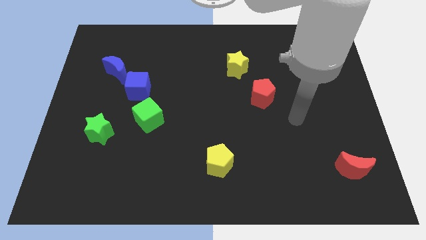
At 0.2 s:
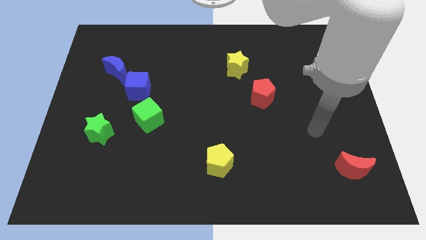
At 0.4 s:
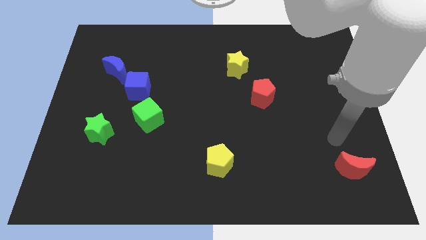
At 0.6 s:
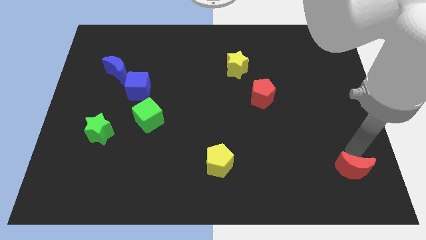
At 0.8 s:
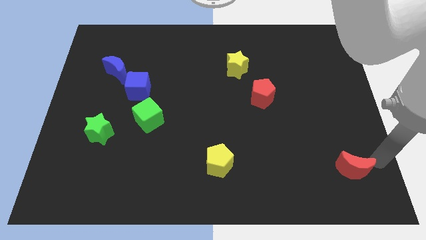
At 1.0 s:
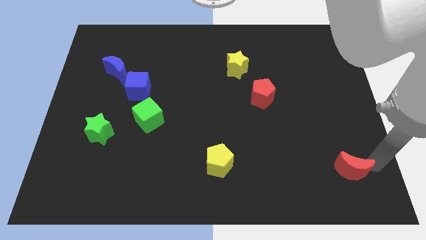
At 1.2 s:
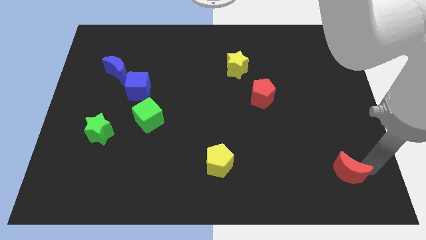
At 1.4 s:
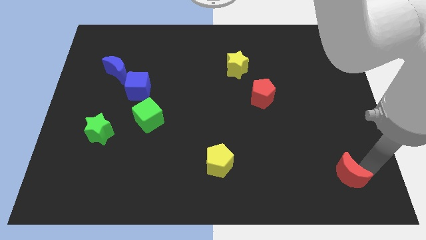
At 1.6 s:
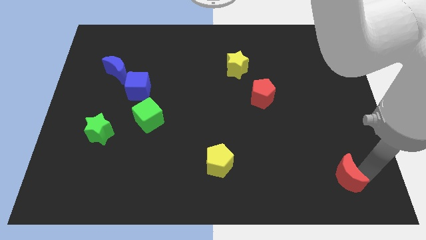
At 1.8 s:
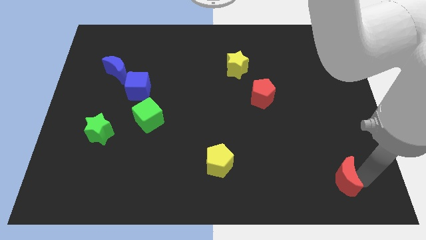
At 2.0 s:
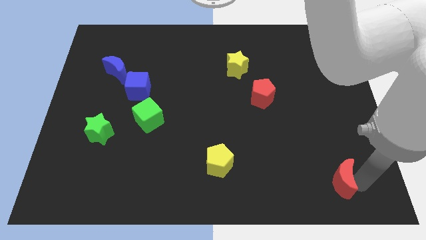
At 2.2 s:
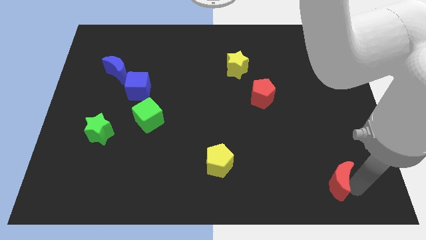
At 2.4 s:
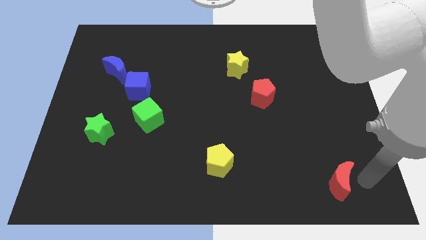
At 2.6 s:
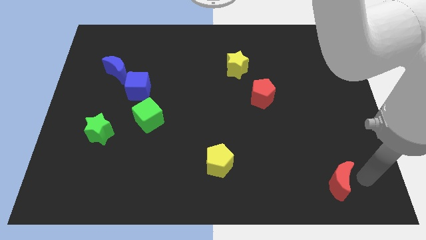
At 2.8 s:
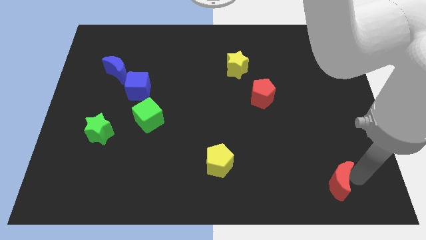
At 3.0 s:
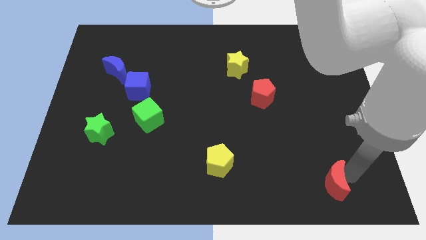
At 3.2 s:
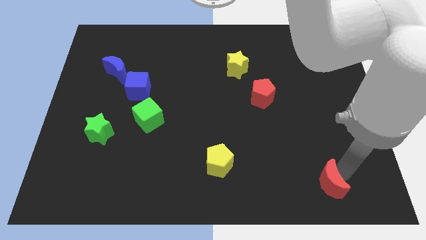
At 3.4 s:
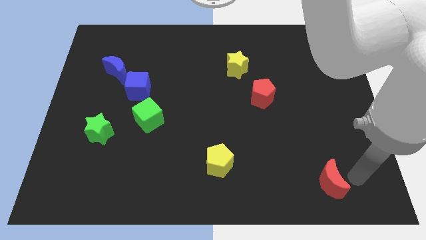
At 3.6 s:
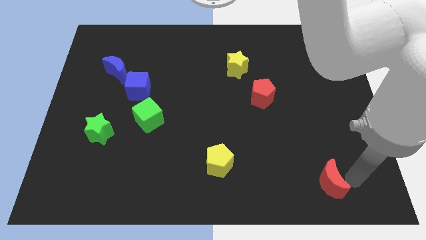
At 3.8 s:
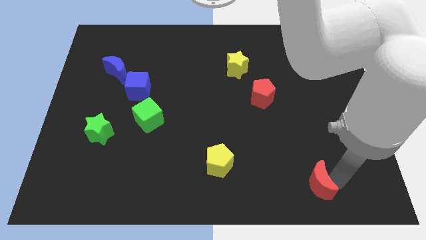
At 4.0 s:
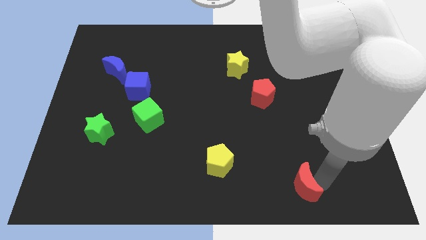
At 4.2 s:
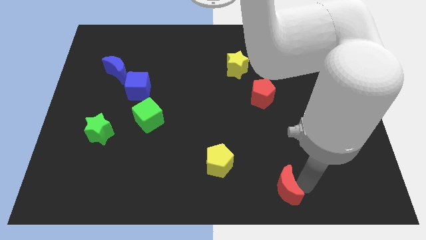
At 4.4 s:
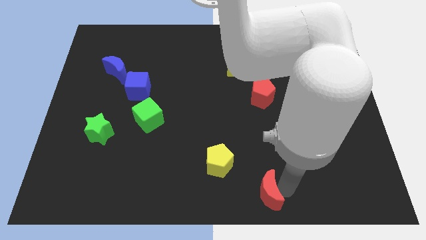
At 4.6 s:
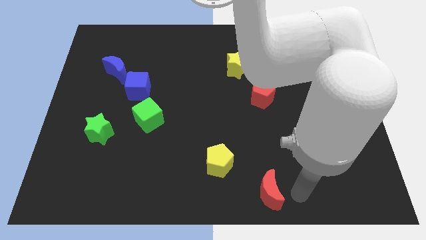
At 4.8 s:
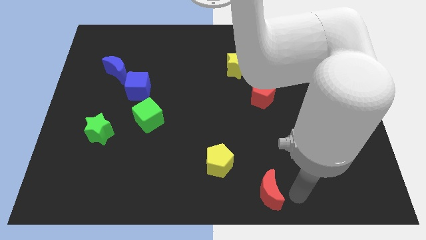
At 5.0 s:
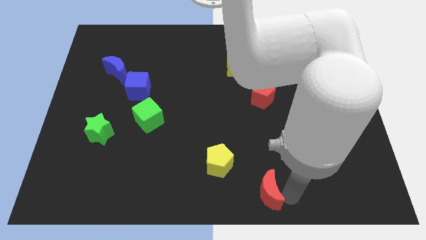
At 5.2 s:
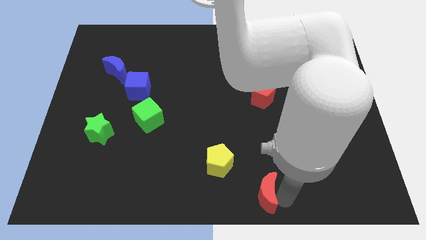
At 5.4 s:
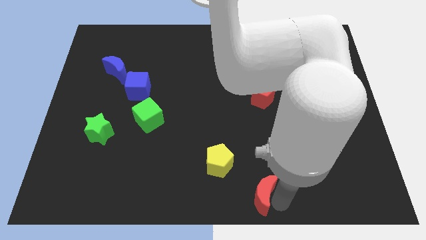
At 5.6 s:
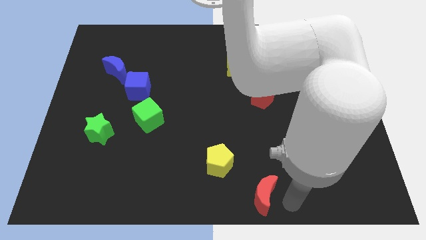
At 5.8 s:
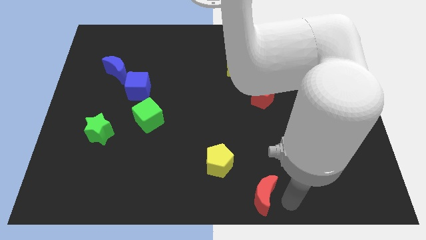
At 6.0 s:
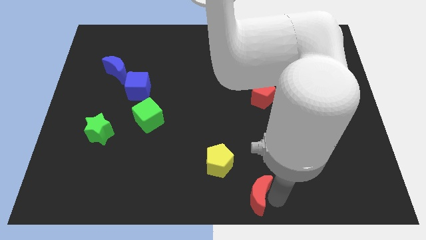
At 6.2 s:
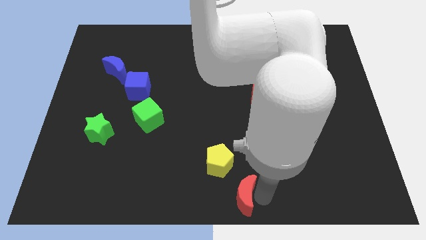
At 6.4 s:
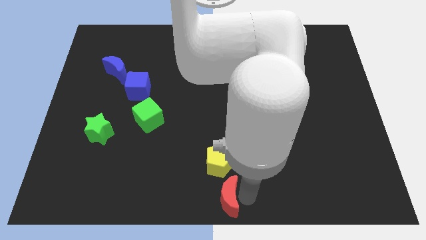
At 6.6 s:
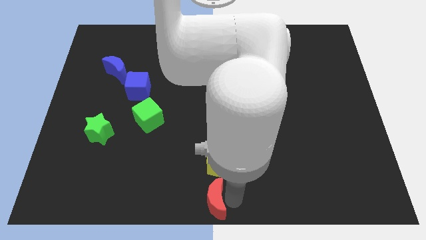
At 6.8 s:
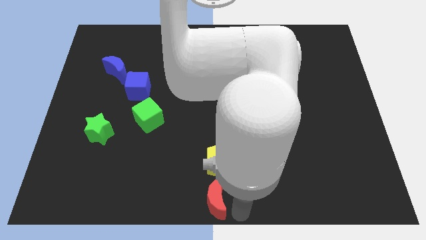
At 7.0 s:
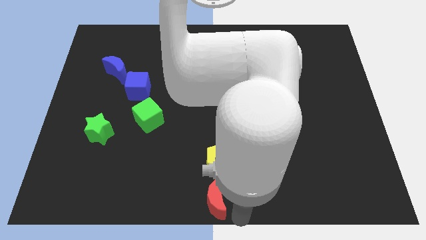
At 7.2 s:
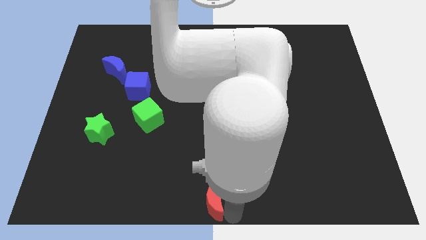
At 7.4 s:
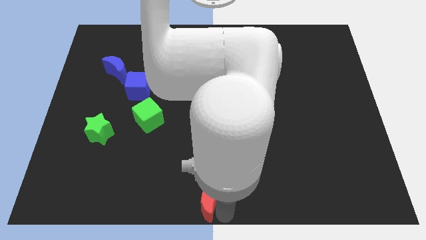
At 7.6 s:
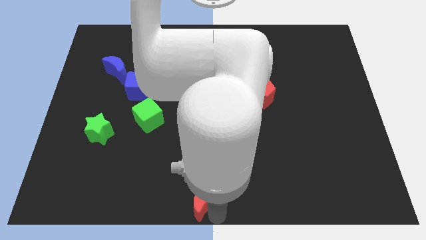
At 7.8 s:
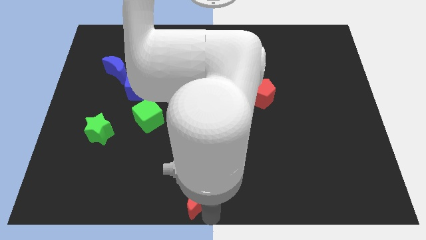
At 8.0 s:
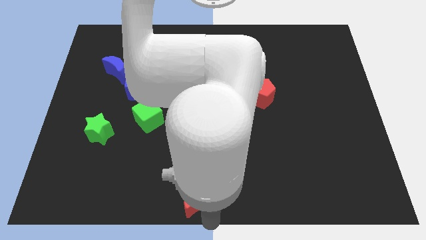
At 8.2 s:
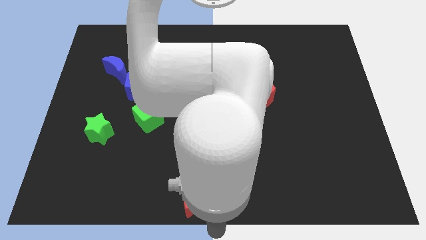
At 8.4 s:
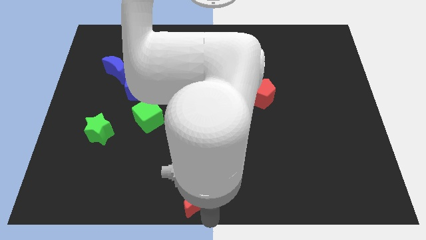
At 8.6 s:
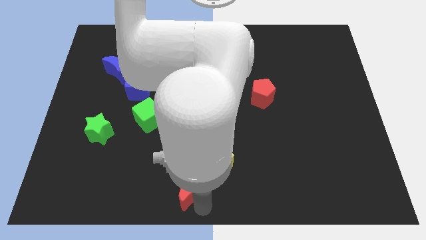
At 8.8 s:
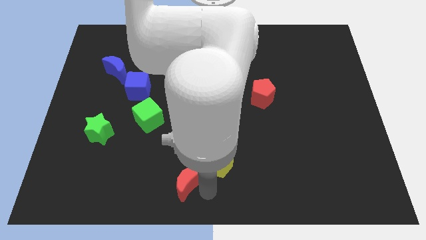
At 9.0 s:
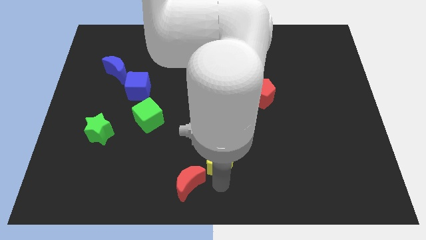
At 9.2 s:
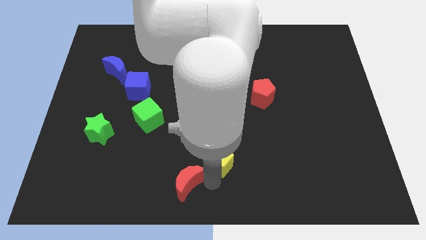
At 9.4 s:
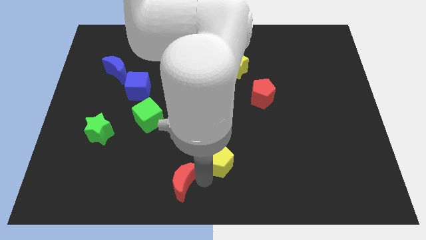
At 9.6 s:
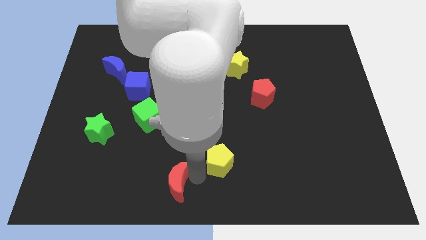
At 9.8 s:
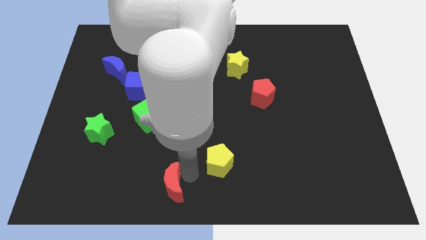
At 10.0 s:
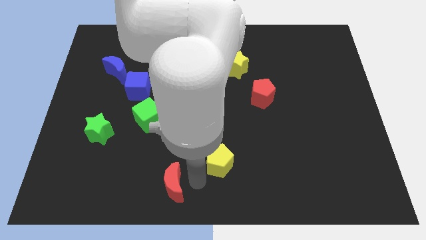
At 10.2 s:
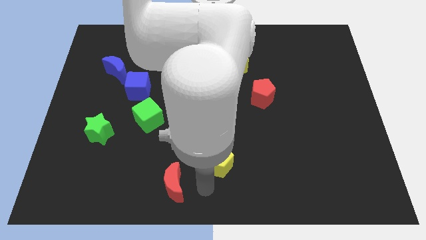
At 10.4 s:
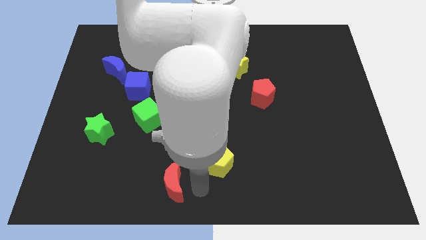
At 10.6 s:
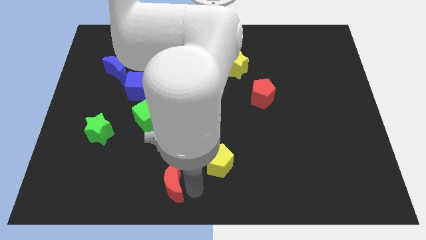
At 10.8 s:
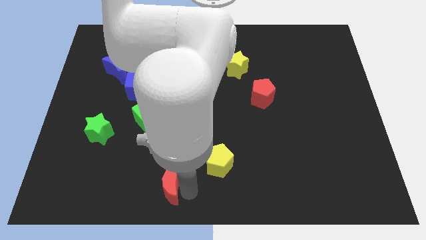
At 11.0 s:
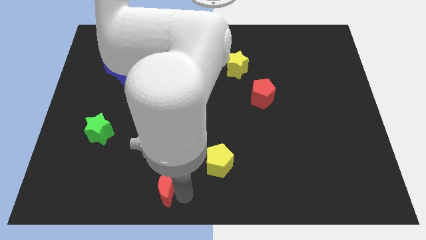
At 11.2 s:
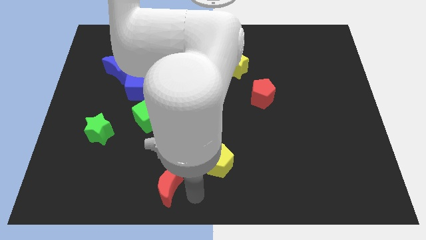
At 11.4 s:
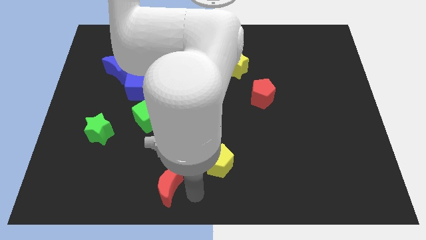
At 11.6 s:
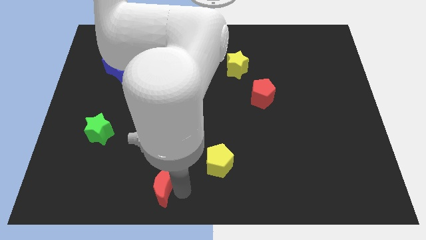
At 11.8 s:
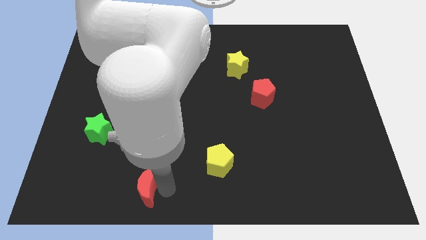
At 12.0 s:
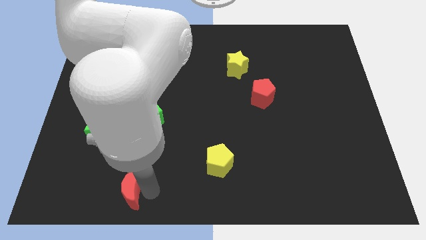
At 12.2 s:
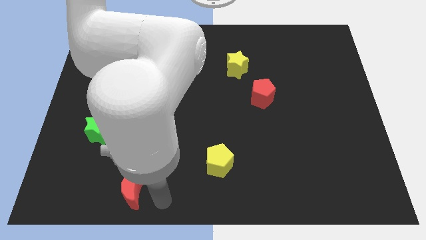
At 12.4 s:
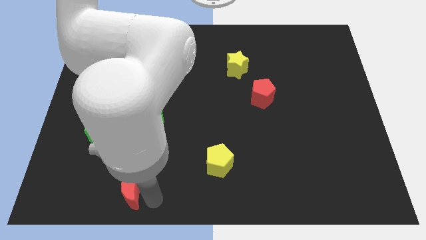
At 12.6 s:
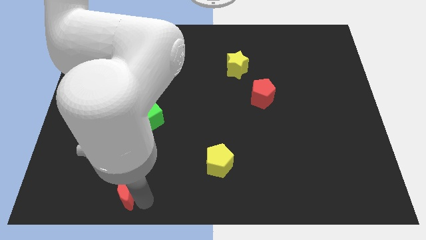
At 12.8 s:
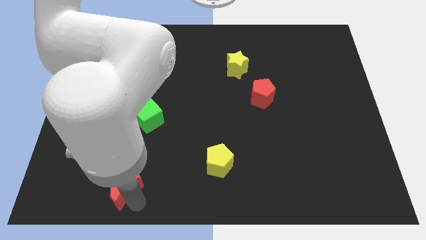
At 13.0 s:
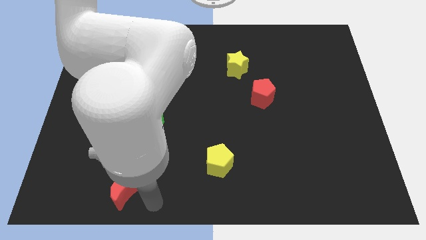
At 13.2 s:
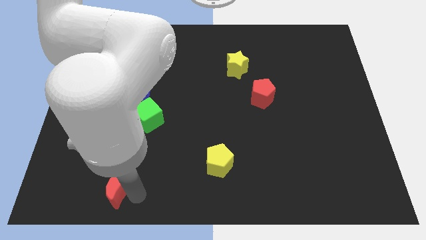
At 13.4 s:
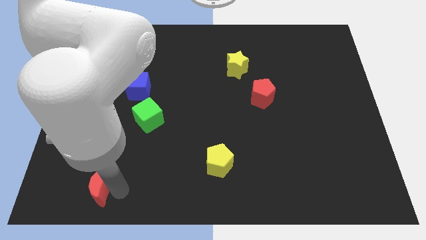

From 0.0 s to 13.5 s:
move the red moon to the bottom side of the green star

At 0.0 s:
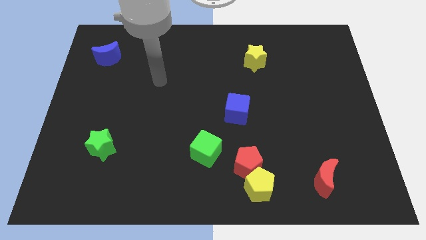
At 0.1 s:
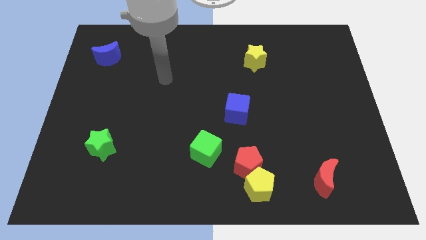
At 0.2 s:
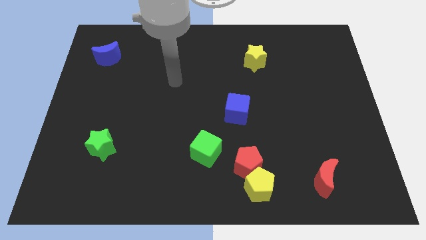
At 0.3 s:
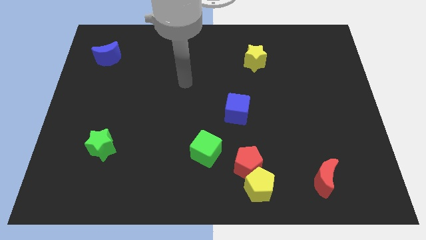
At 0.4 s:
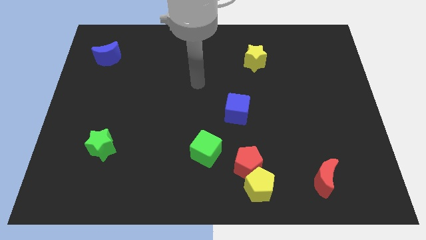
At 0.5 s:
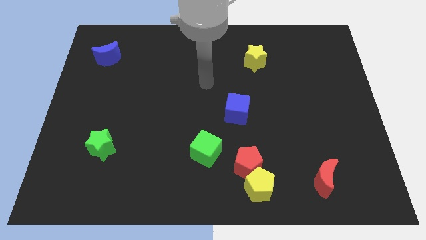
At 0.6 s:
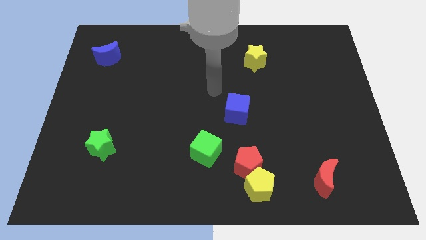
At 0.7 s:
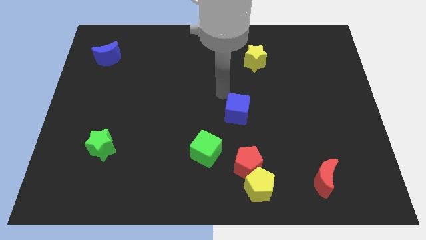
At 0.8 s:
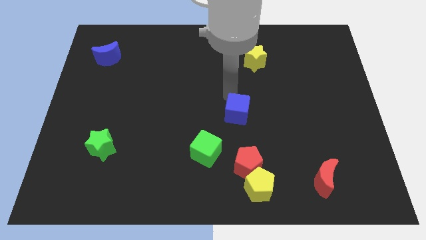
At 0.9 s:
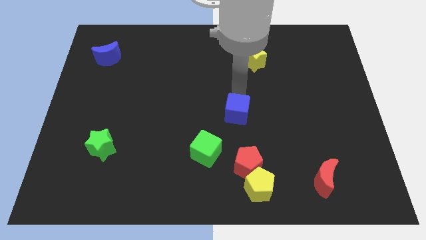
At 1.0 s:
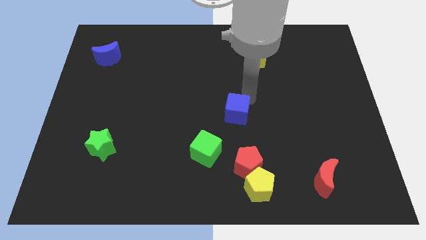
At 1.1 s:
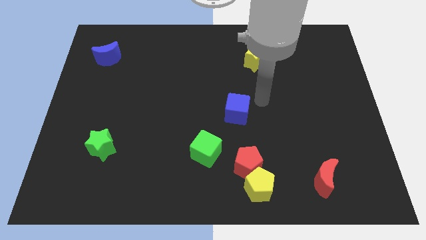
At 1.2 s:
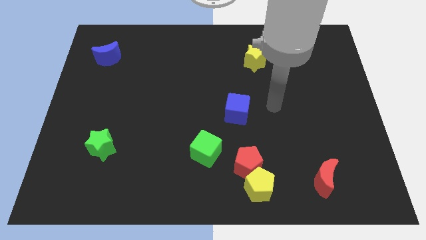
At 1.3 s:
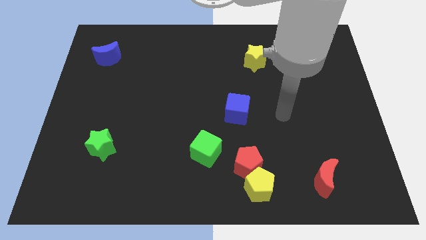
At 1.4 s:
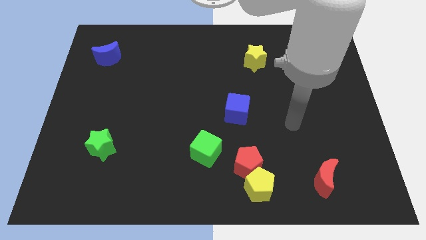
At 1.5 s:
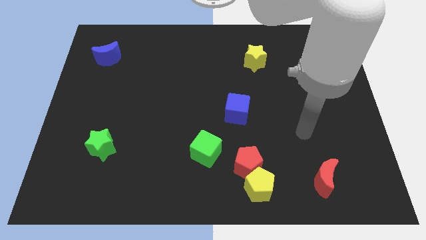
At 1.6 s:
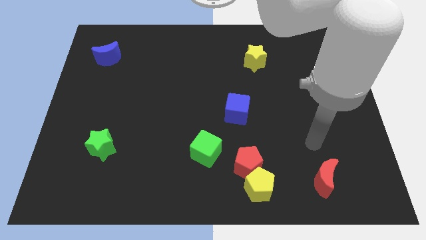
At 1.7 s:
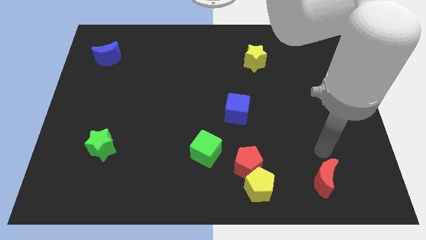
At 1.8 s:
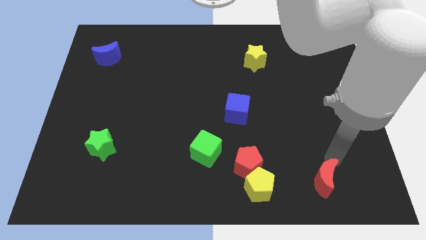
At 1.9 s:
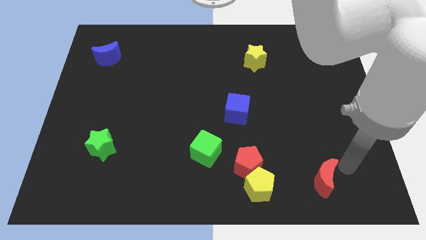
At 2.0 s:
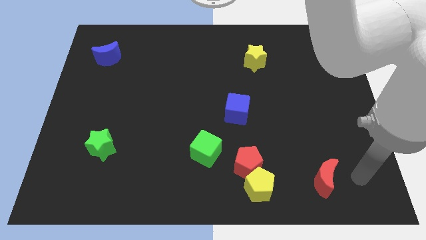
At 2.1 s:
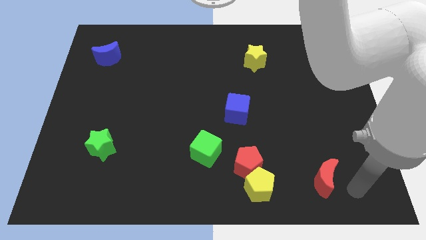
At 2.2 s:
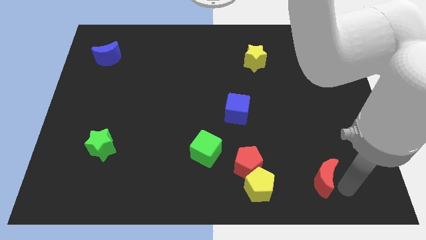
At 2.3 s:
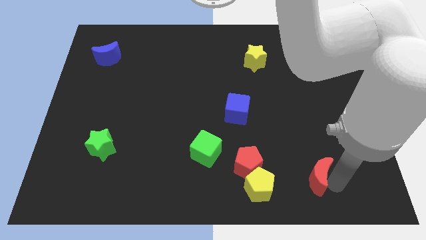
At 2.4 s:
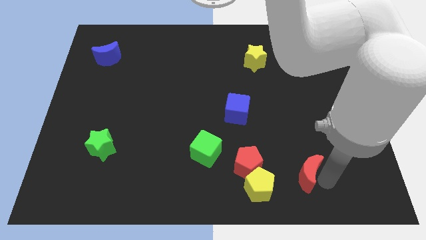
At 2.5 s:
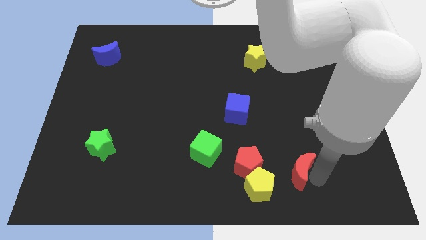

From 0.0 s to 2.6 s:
slide the red moon diagonally up and to the right of the yellow pentagon
